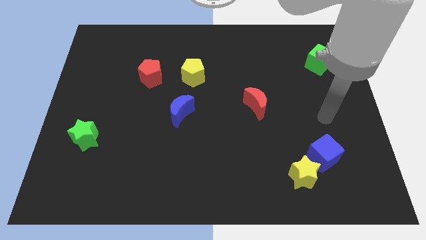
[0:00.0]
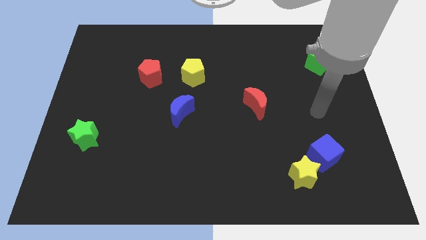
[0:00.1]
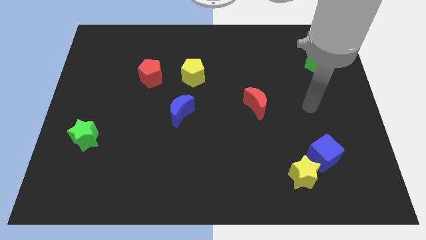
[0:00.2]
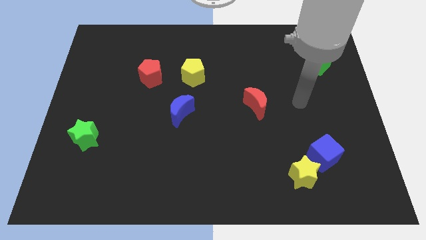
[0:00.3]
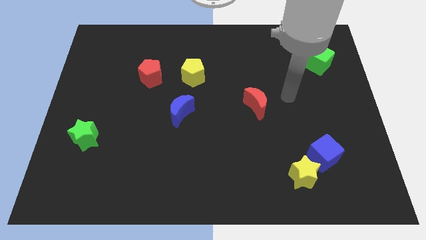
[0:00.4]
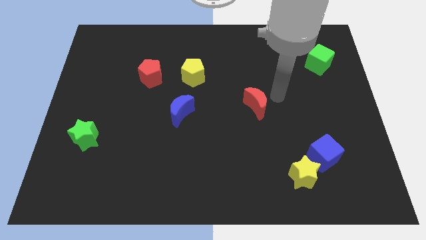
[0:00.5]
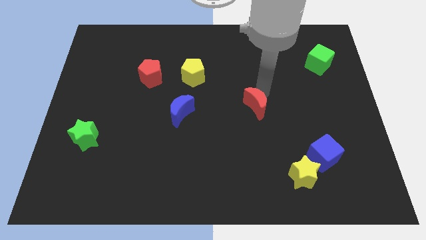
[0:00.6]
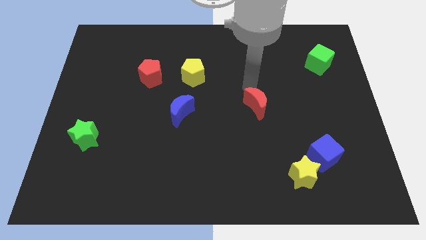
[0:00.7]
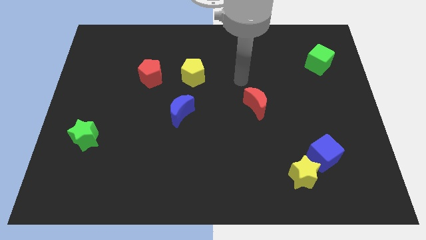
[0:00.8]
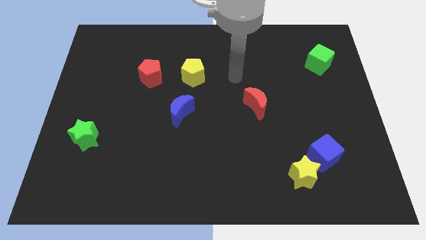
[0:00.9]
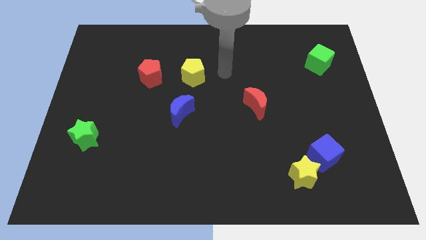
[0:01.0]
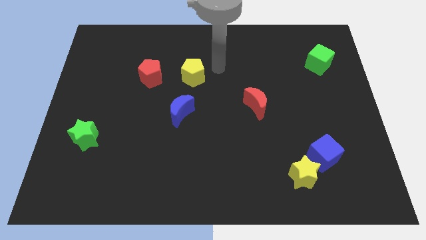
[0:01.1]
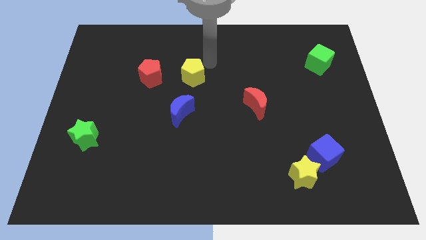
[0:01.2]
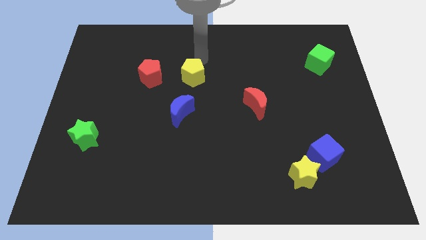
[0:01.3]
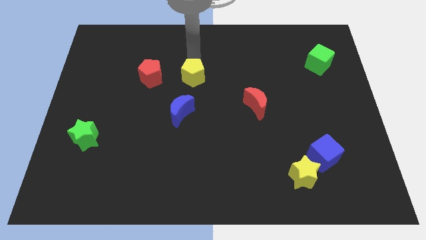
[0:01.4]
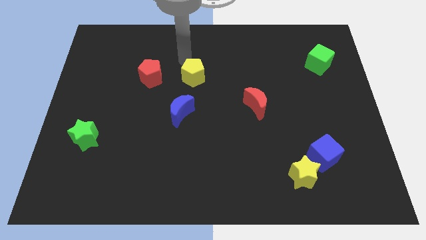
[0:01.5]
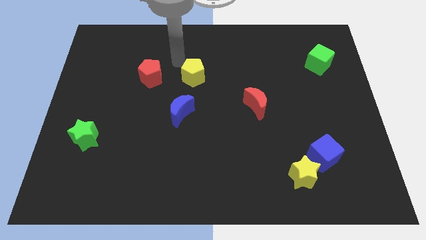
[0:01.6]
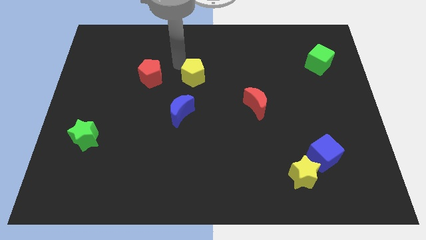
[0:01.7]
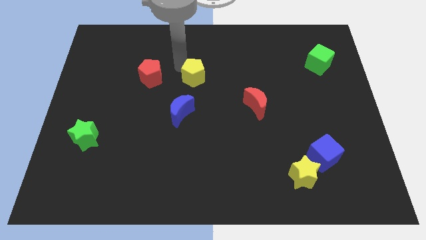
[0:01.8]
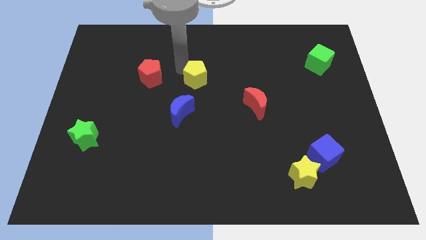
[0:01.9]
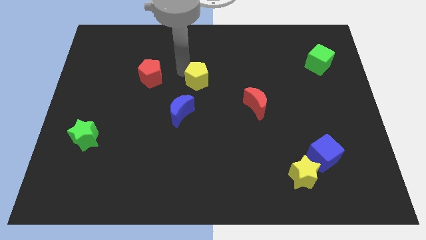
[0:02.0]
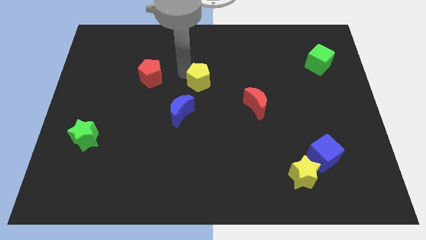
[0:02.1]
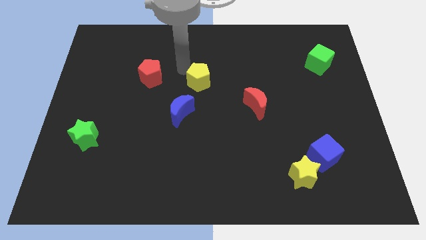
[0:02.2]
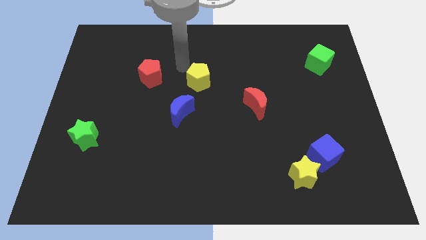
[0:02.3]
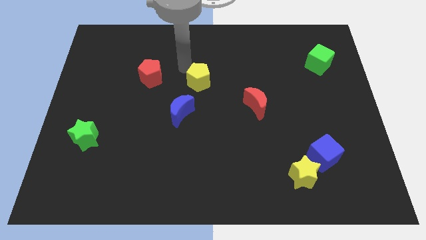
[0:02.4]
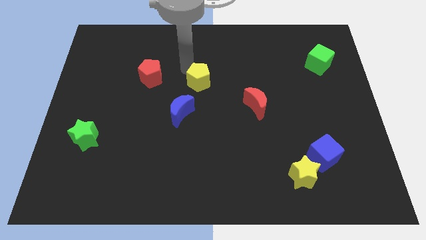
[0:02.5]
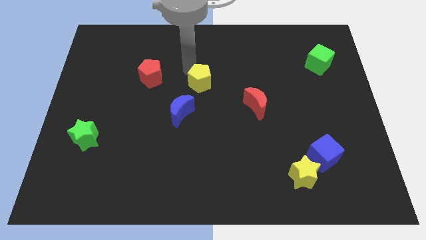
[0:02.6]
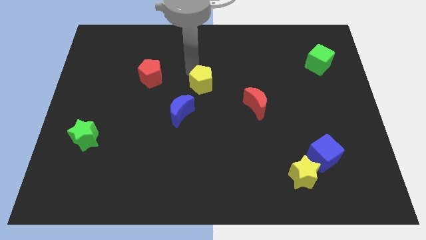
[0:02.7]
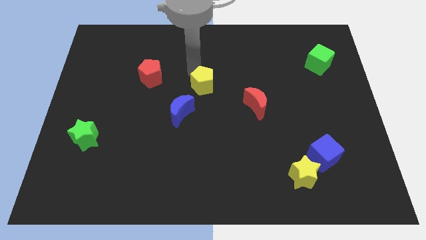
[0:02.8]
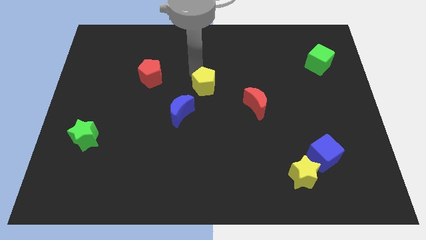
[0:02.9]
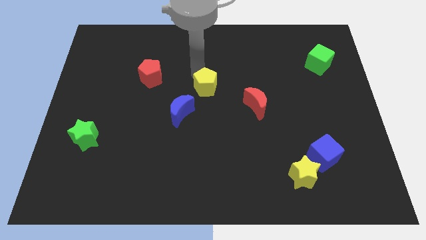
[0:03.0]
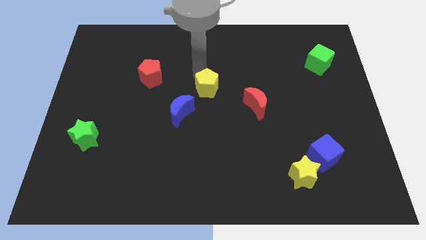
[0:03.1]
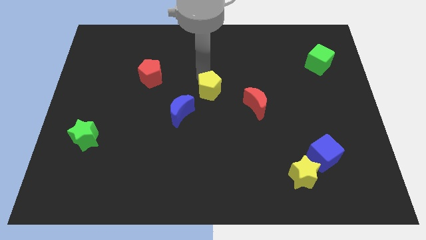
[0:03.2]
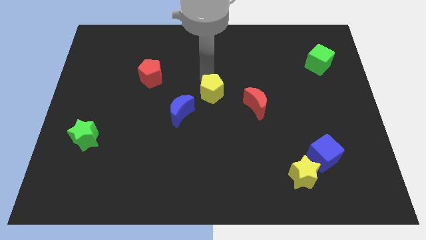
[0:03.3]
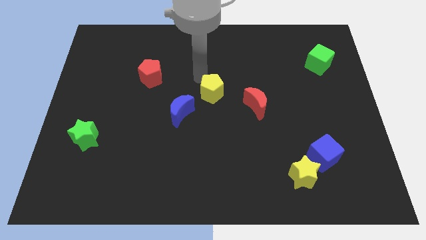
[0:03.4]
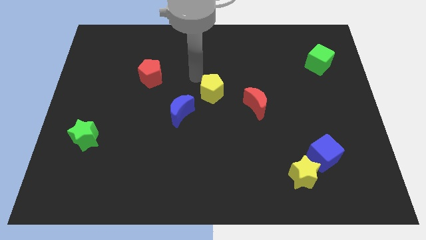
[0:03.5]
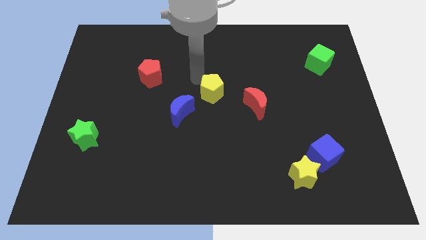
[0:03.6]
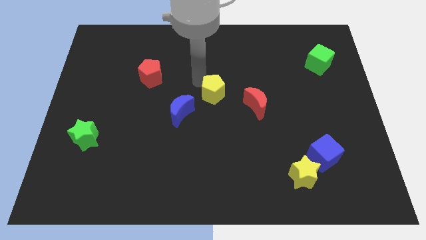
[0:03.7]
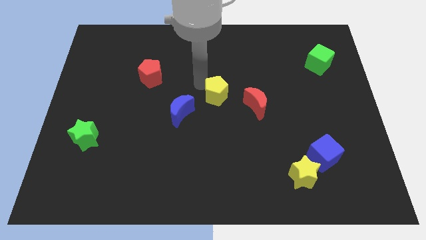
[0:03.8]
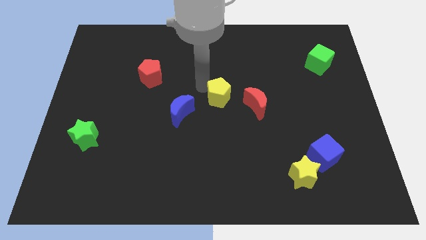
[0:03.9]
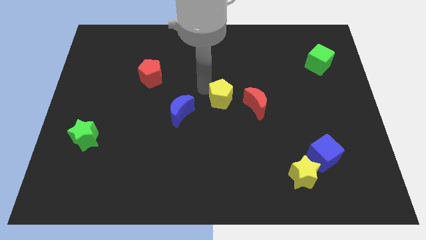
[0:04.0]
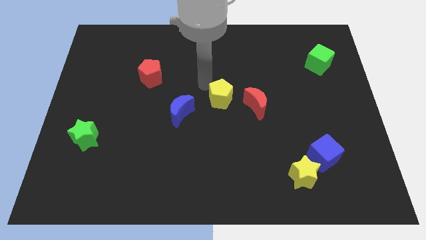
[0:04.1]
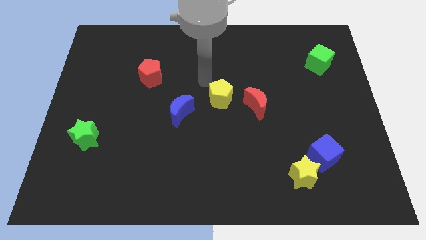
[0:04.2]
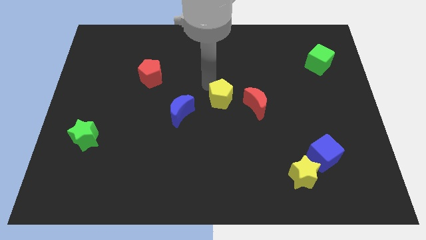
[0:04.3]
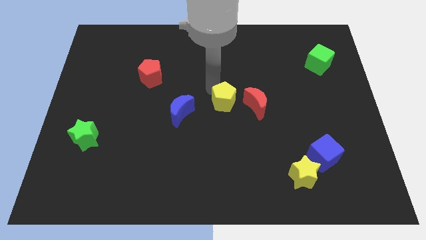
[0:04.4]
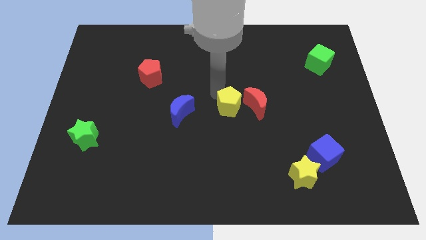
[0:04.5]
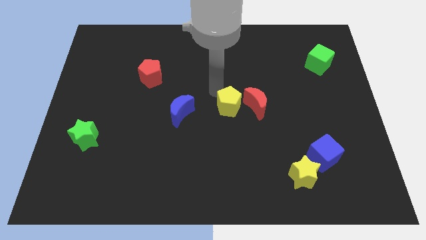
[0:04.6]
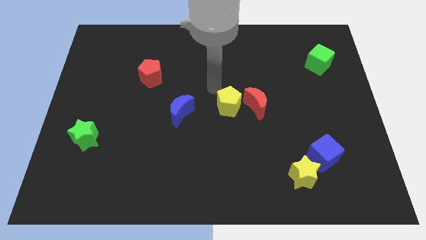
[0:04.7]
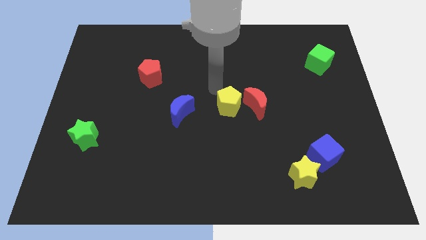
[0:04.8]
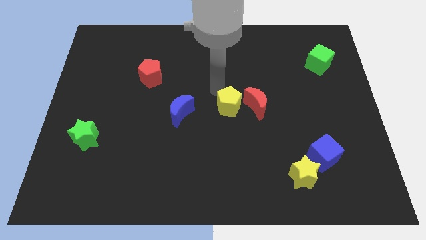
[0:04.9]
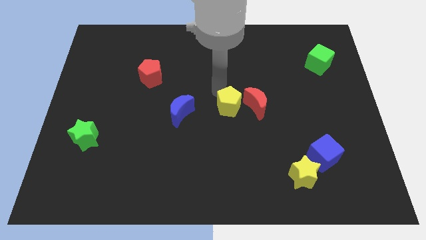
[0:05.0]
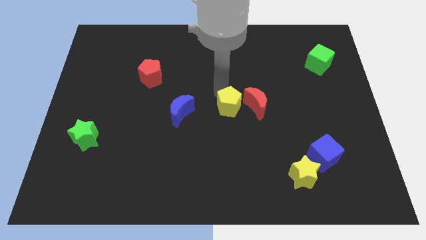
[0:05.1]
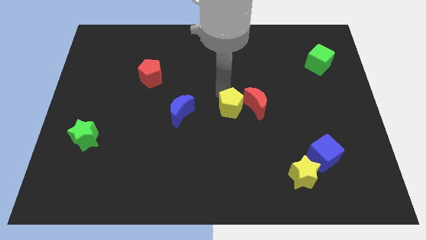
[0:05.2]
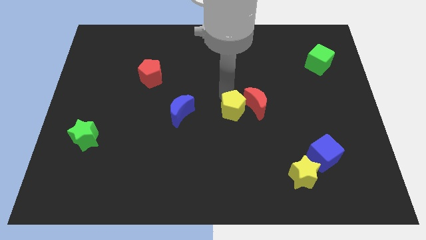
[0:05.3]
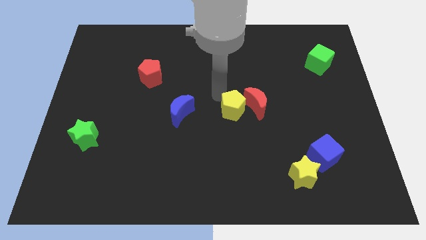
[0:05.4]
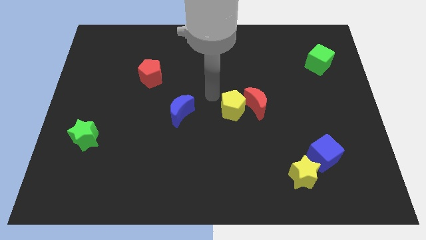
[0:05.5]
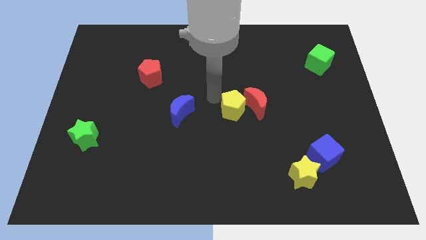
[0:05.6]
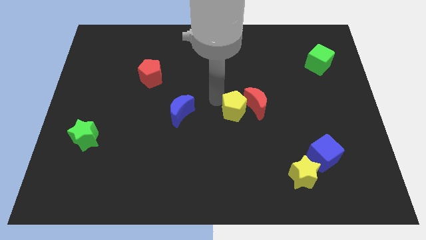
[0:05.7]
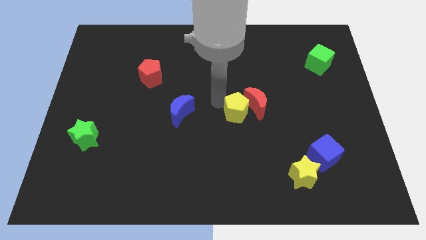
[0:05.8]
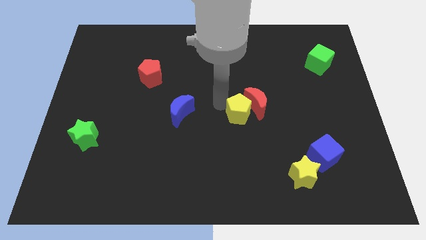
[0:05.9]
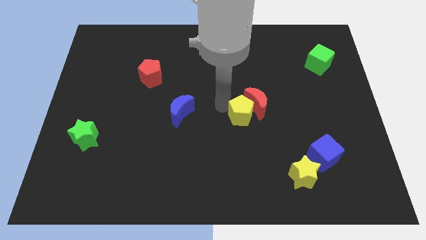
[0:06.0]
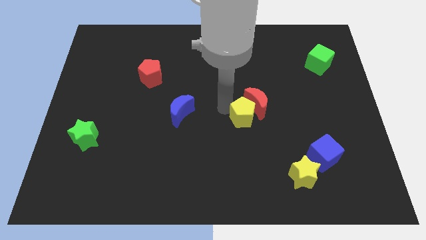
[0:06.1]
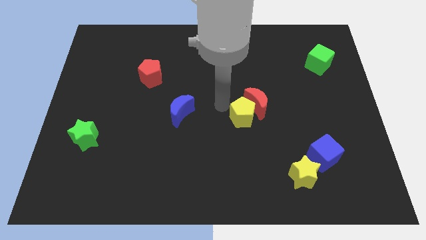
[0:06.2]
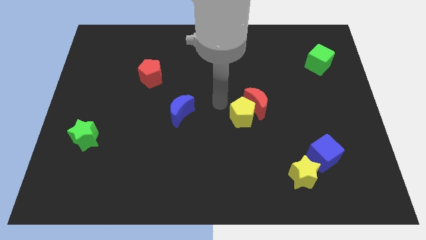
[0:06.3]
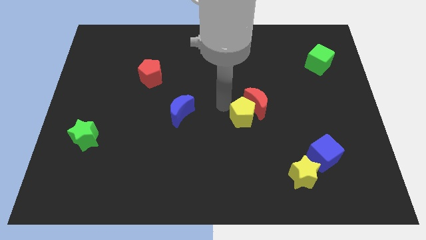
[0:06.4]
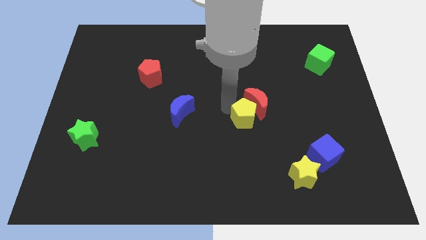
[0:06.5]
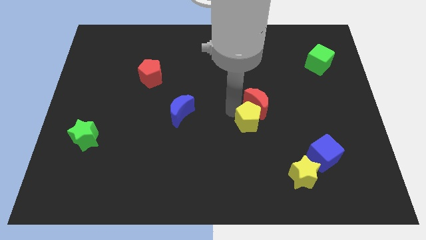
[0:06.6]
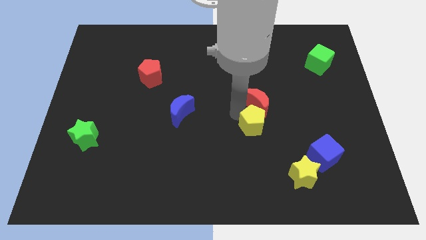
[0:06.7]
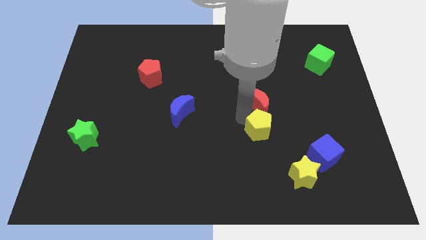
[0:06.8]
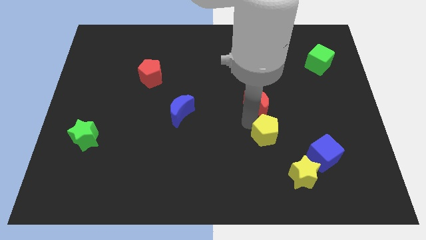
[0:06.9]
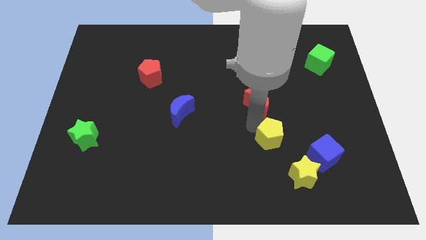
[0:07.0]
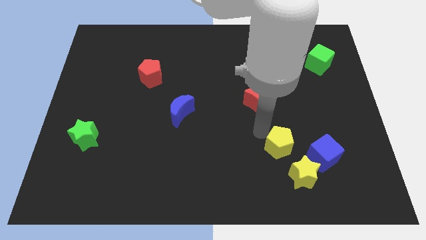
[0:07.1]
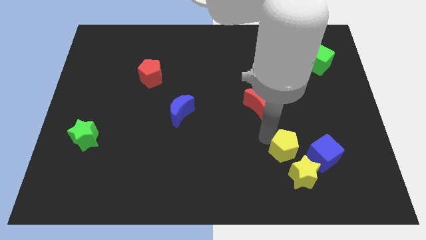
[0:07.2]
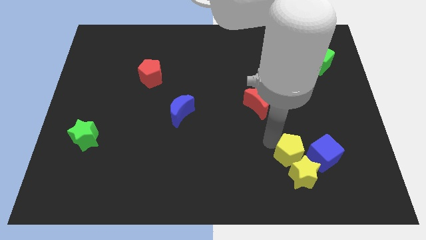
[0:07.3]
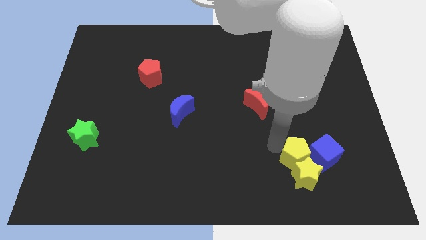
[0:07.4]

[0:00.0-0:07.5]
put the yellow pentagon next to the blue cube
